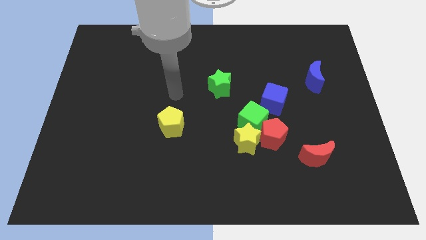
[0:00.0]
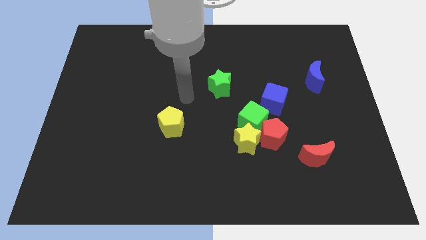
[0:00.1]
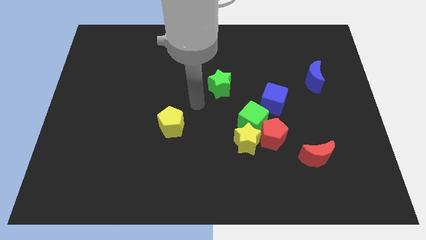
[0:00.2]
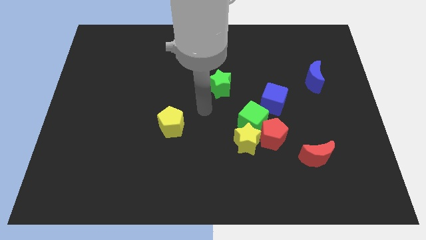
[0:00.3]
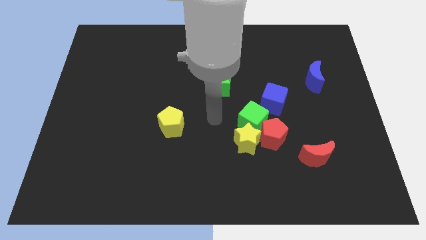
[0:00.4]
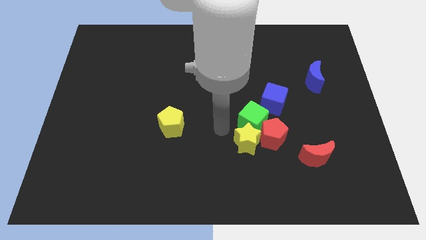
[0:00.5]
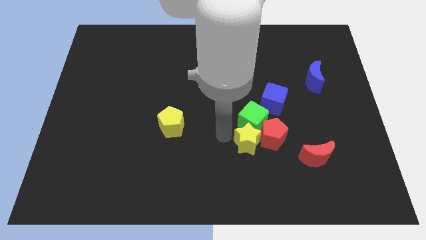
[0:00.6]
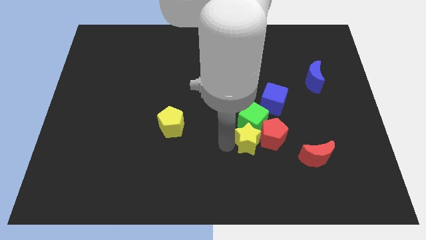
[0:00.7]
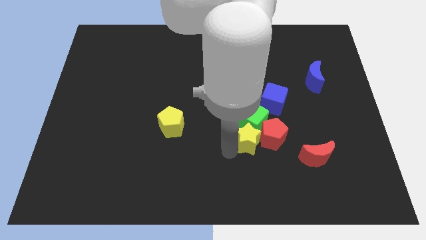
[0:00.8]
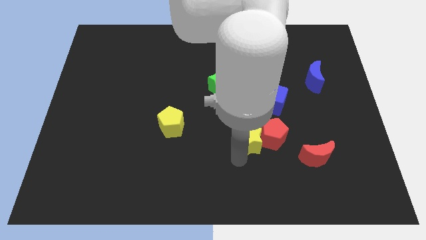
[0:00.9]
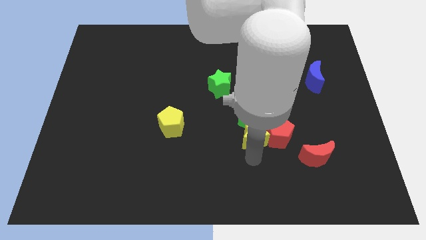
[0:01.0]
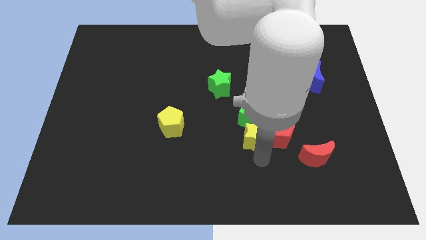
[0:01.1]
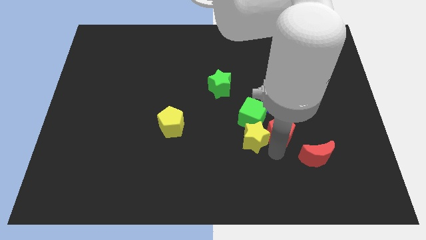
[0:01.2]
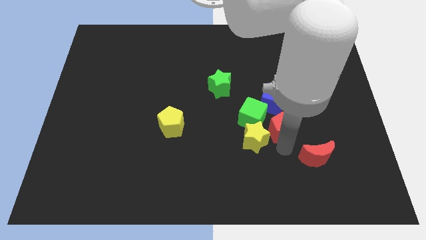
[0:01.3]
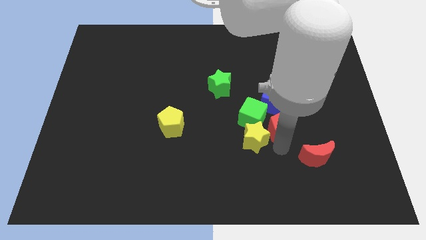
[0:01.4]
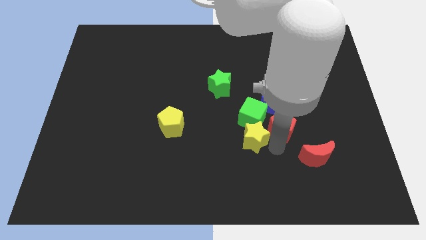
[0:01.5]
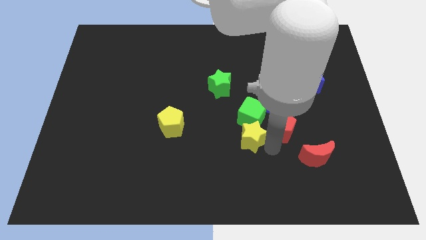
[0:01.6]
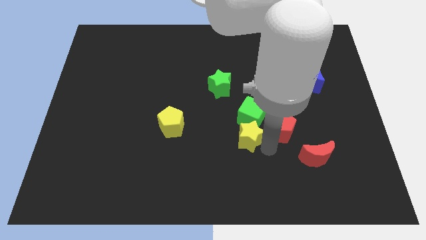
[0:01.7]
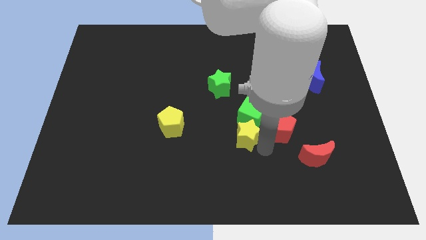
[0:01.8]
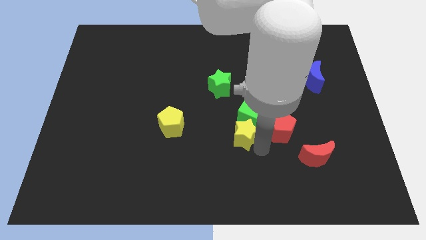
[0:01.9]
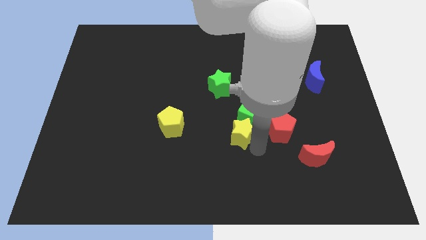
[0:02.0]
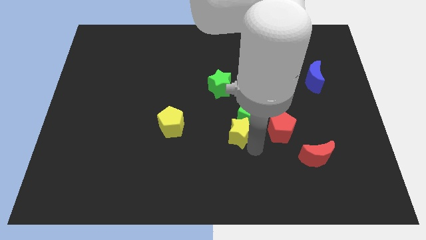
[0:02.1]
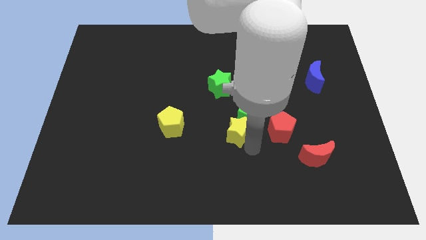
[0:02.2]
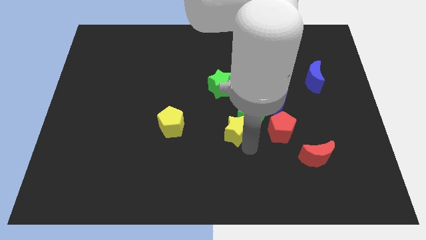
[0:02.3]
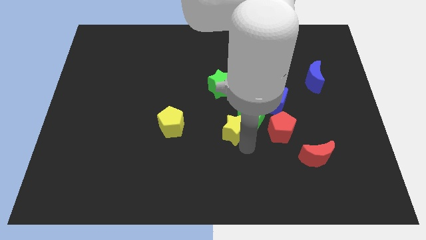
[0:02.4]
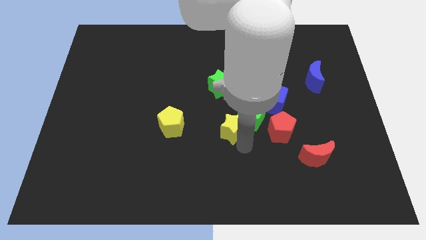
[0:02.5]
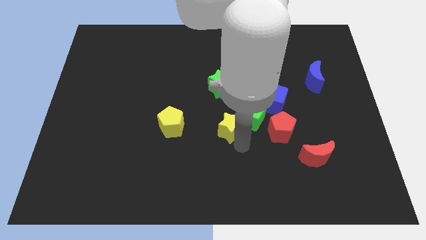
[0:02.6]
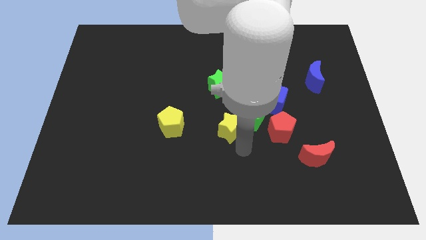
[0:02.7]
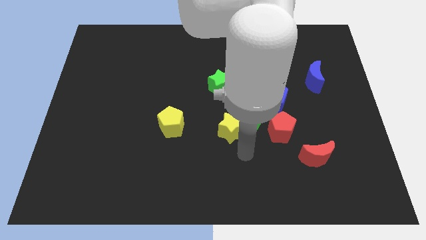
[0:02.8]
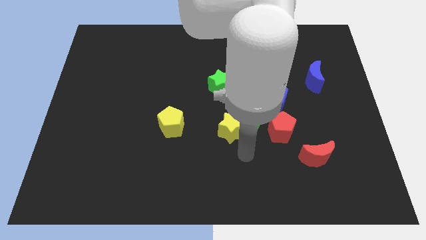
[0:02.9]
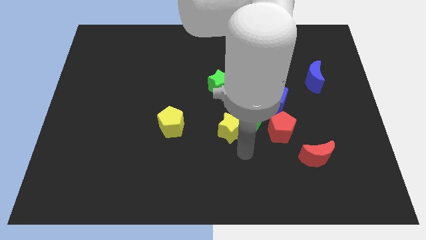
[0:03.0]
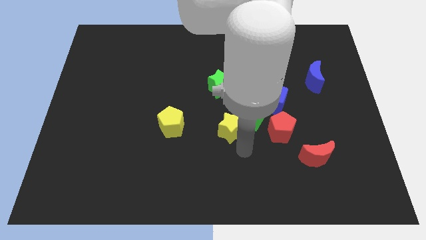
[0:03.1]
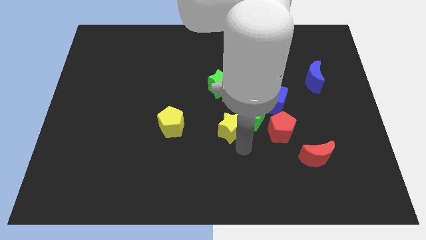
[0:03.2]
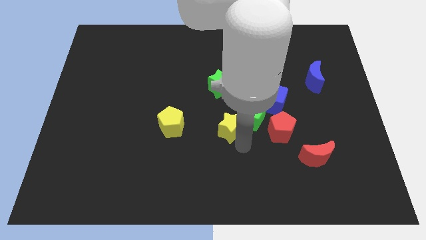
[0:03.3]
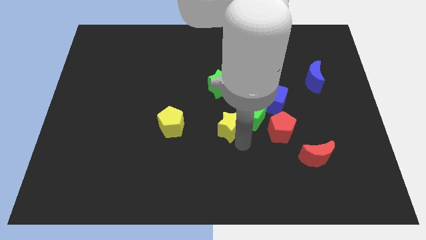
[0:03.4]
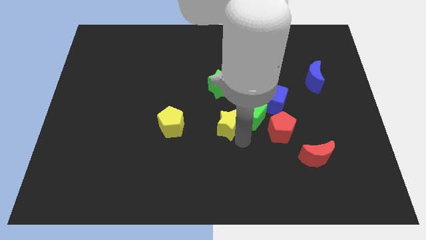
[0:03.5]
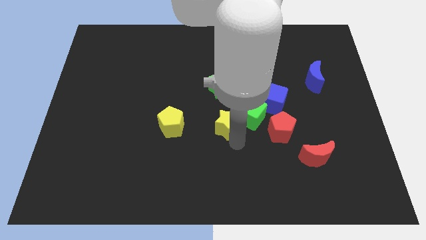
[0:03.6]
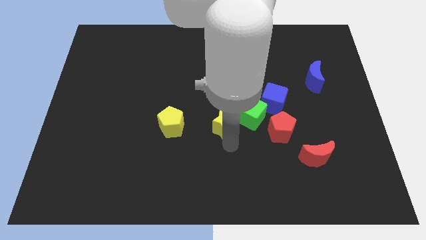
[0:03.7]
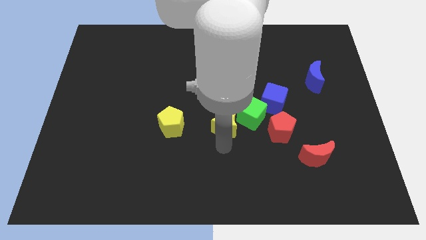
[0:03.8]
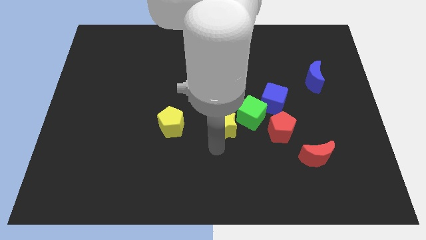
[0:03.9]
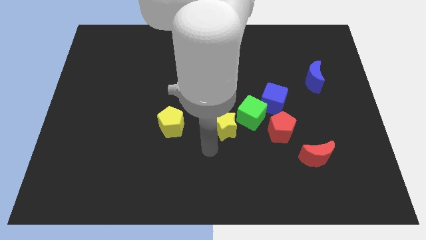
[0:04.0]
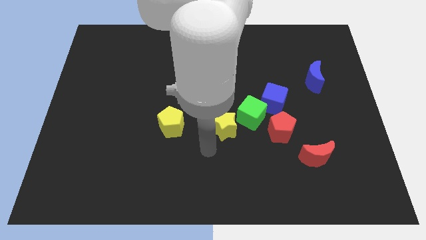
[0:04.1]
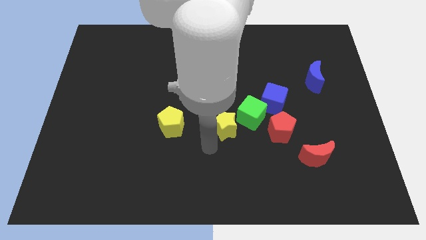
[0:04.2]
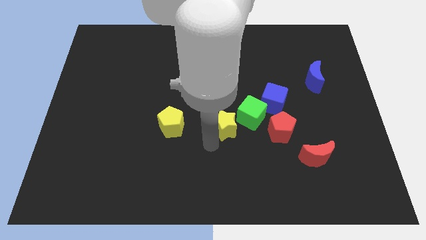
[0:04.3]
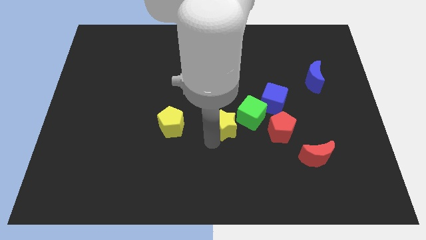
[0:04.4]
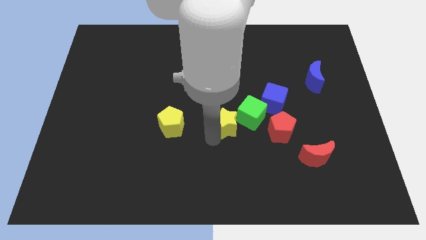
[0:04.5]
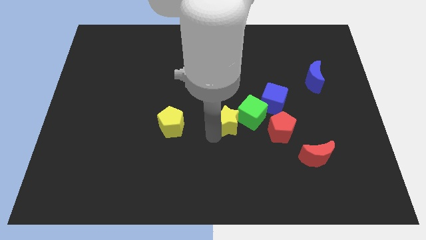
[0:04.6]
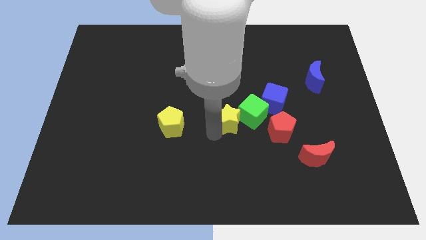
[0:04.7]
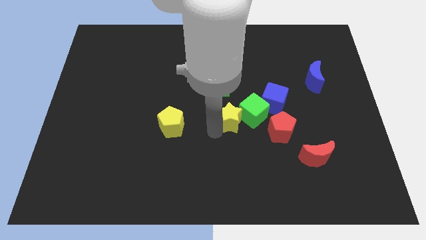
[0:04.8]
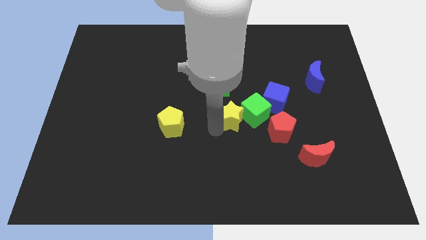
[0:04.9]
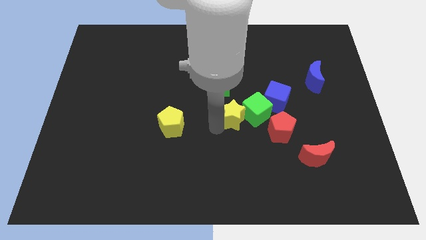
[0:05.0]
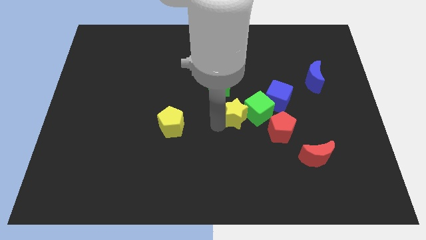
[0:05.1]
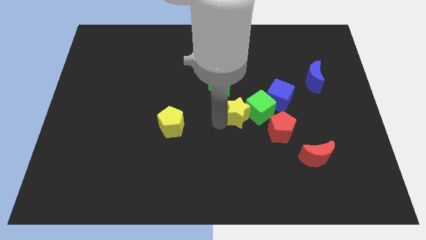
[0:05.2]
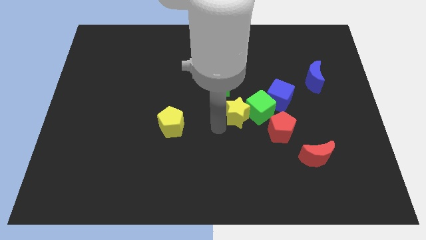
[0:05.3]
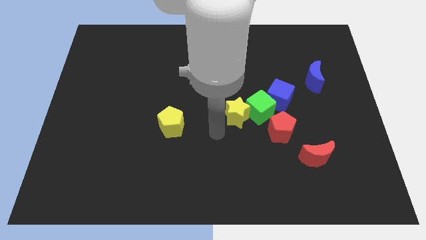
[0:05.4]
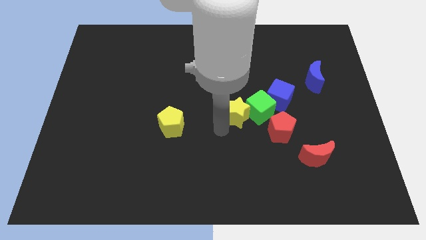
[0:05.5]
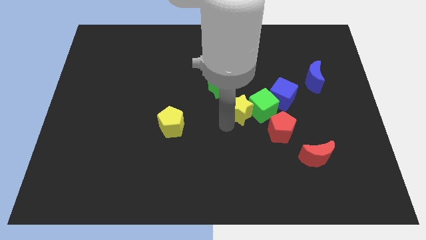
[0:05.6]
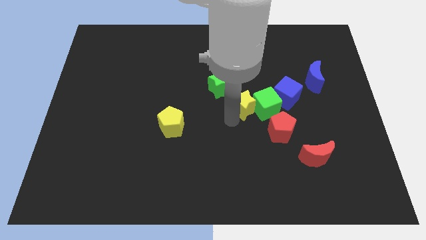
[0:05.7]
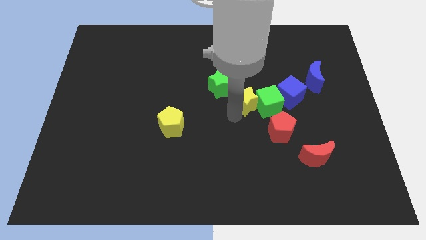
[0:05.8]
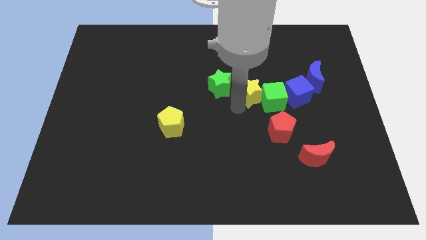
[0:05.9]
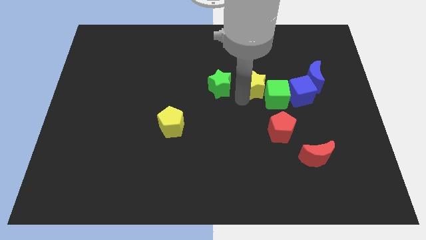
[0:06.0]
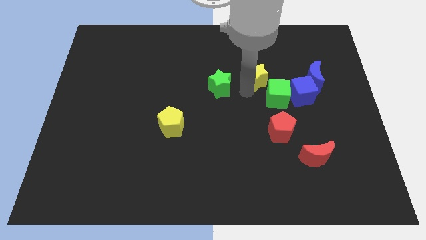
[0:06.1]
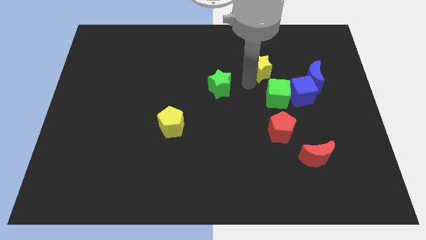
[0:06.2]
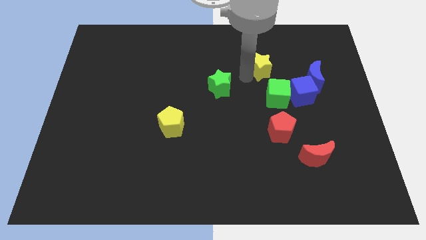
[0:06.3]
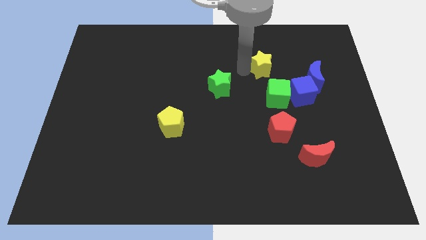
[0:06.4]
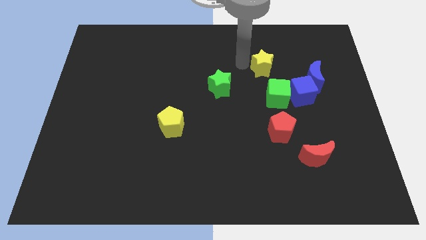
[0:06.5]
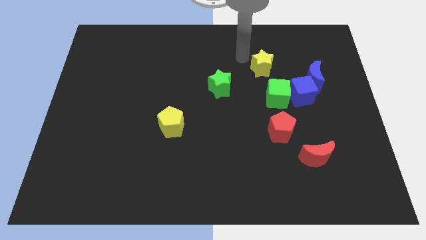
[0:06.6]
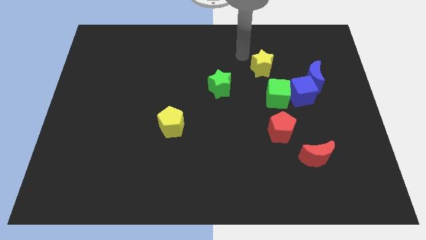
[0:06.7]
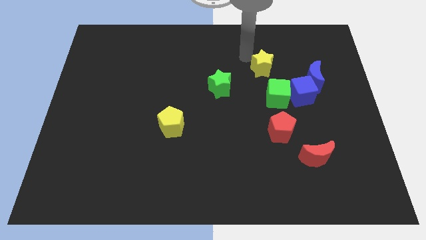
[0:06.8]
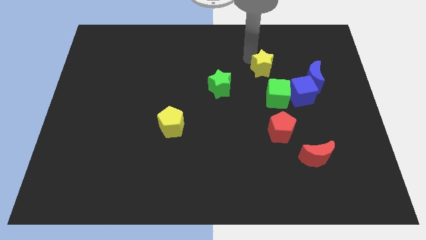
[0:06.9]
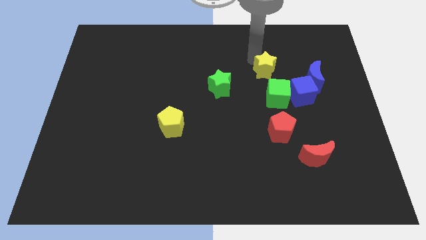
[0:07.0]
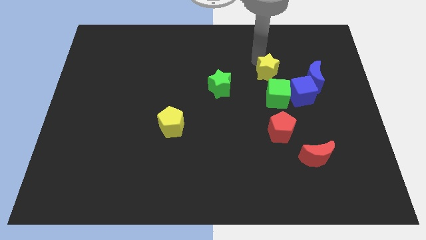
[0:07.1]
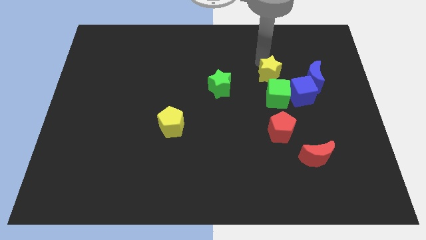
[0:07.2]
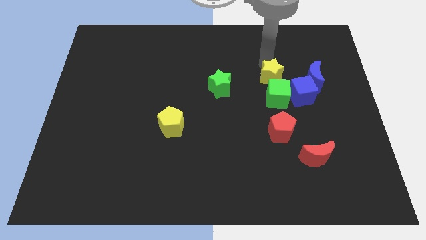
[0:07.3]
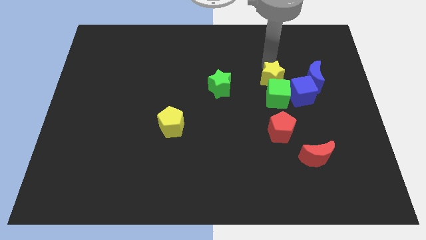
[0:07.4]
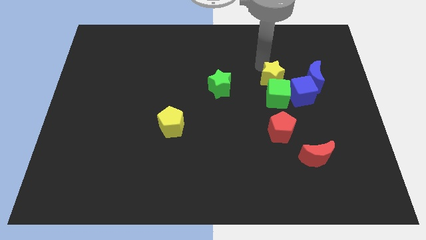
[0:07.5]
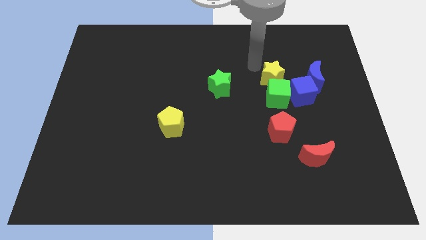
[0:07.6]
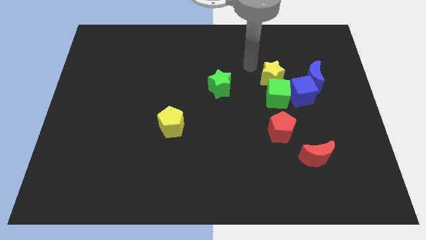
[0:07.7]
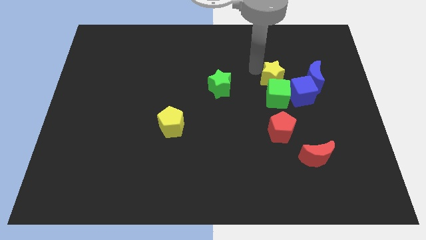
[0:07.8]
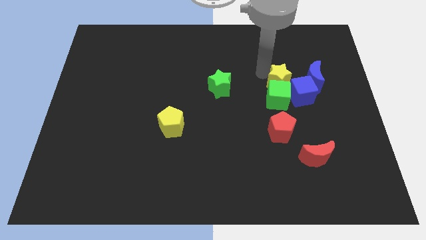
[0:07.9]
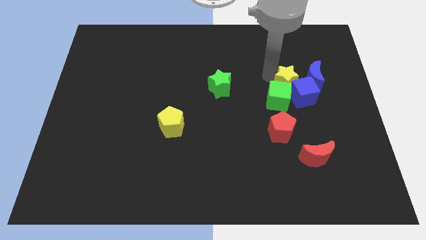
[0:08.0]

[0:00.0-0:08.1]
push the yellow star close to the blue cube
